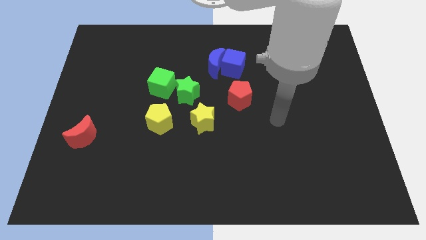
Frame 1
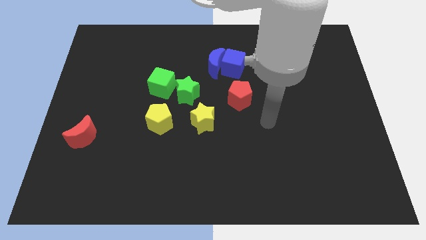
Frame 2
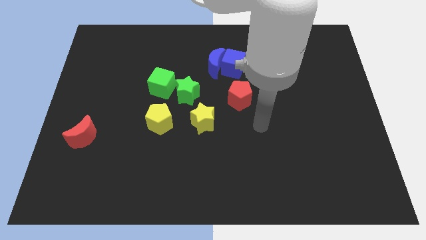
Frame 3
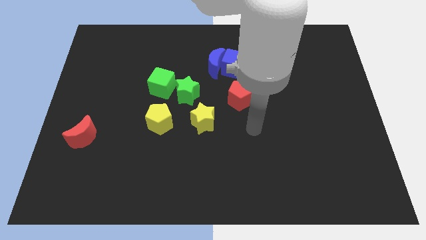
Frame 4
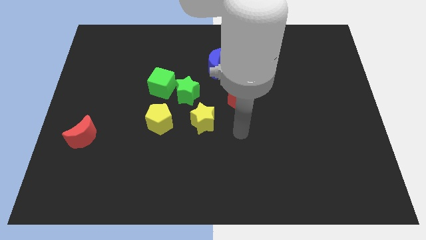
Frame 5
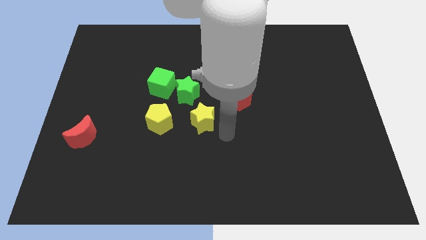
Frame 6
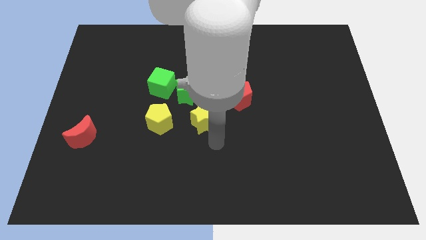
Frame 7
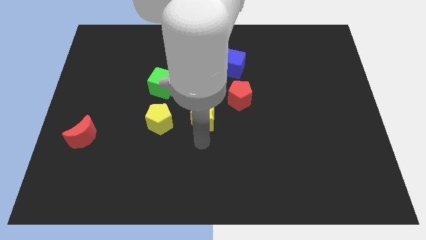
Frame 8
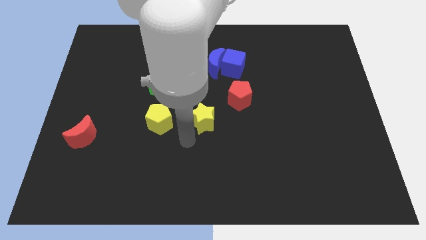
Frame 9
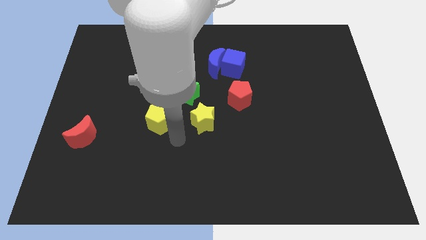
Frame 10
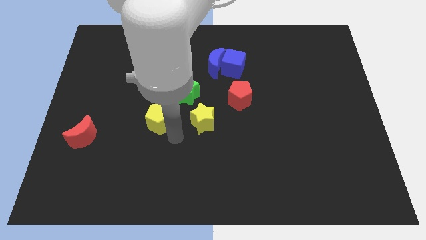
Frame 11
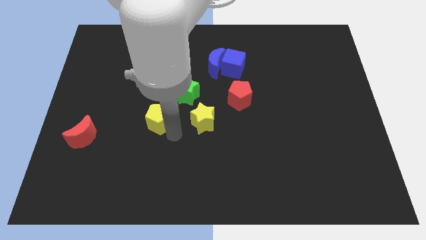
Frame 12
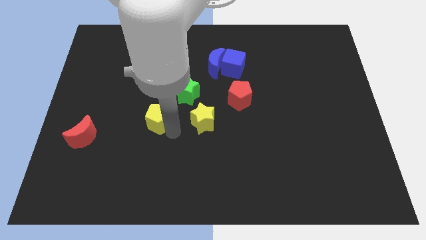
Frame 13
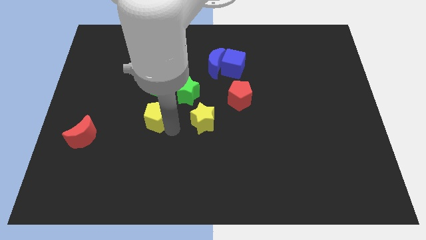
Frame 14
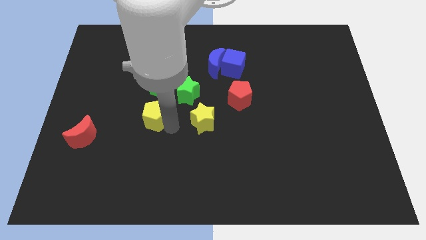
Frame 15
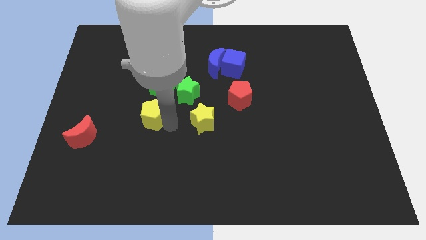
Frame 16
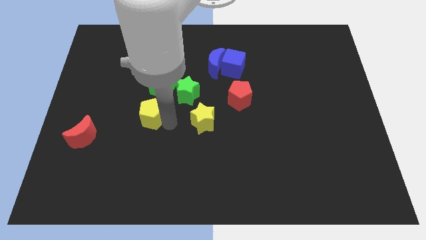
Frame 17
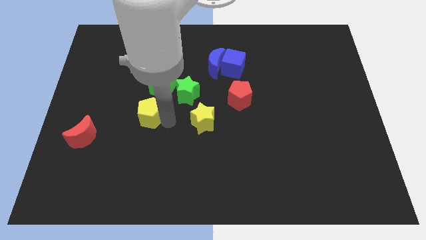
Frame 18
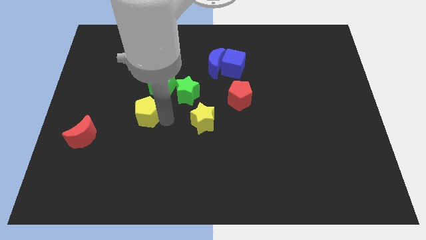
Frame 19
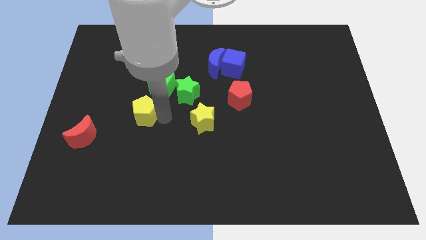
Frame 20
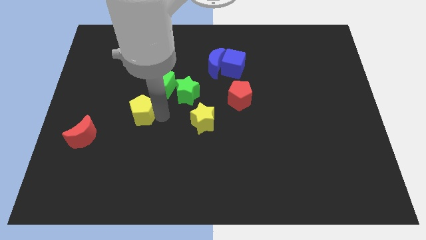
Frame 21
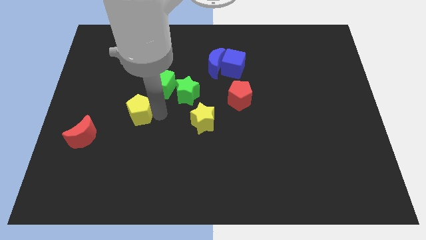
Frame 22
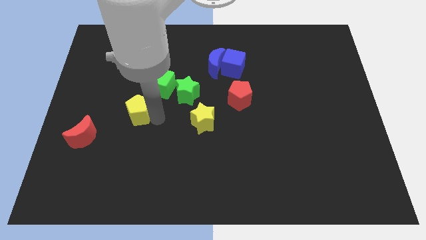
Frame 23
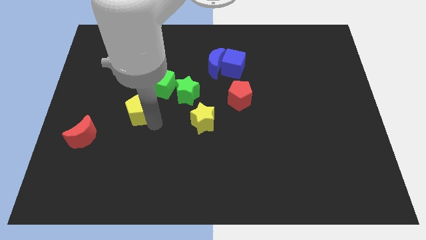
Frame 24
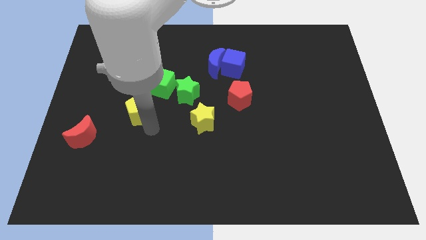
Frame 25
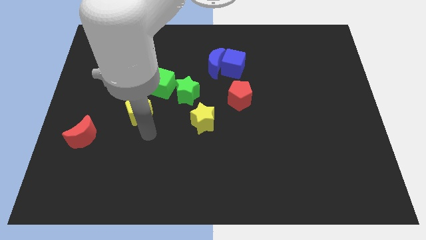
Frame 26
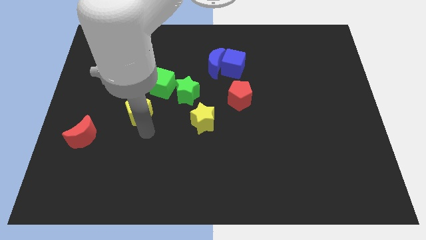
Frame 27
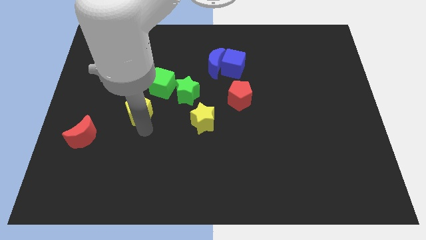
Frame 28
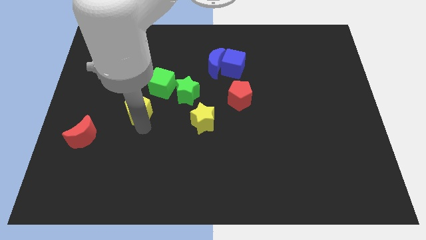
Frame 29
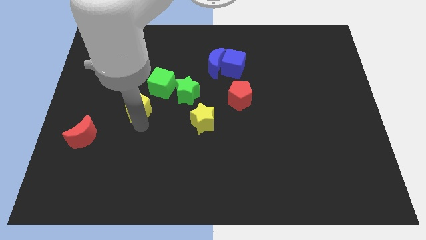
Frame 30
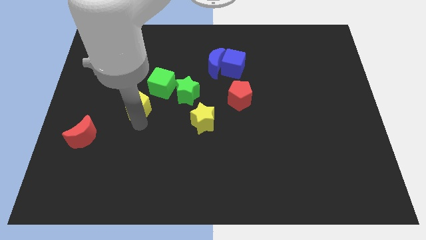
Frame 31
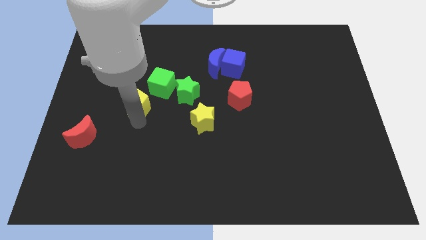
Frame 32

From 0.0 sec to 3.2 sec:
slightly slide the yellow pentagon up and to the left diagonally

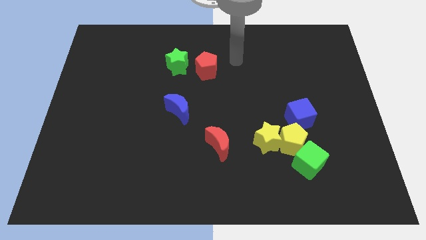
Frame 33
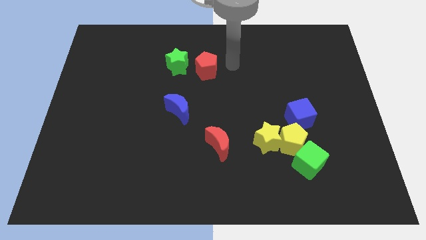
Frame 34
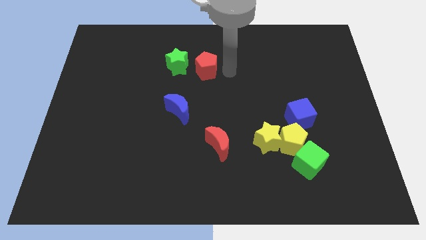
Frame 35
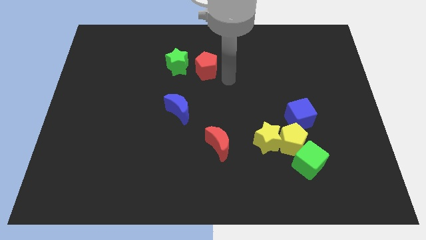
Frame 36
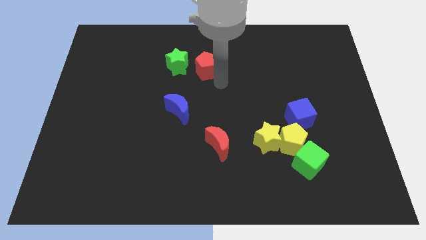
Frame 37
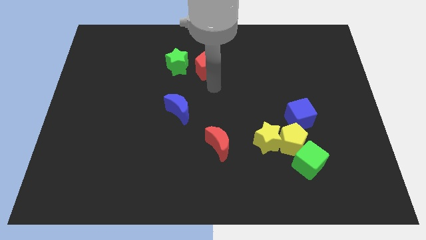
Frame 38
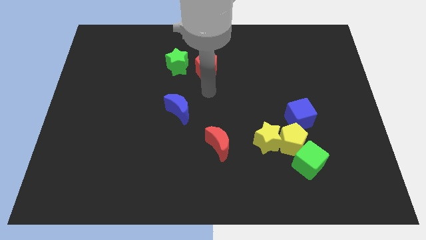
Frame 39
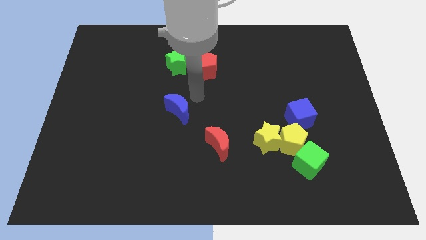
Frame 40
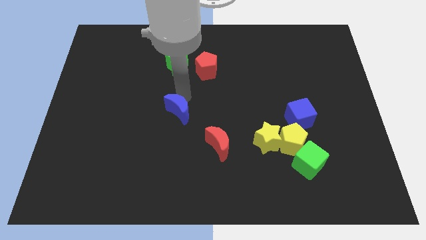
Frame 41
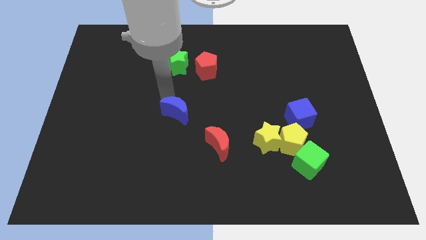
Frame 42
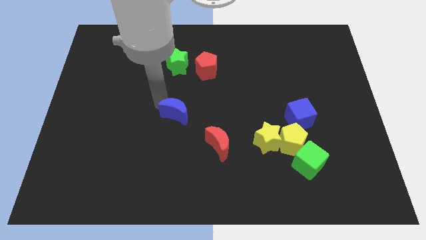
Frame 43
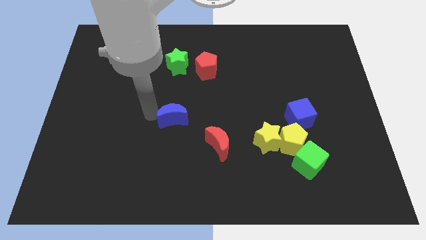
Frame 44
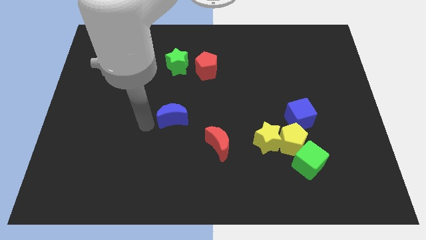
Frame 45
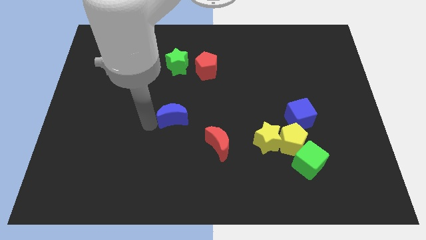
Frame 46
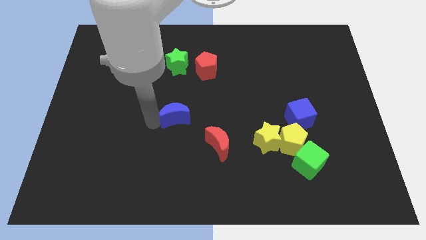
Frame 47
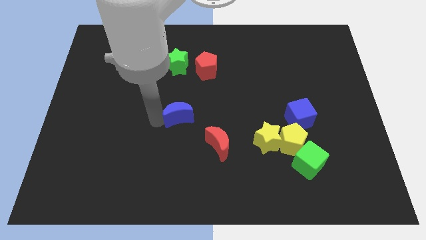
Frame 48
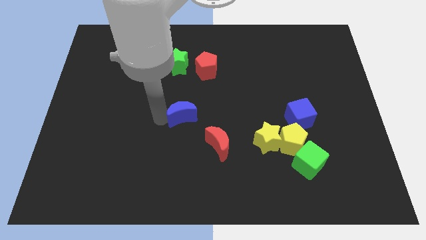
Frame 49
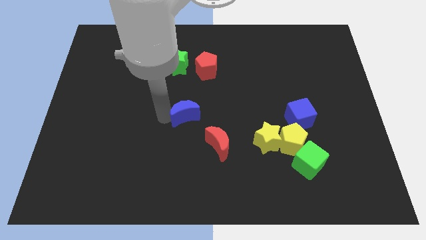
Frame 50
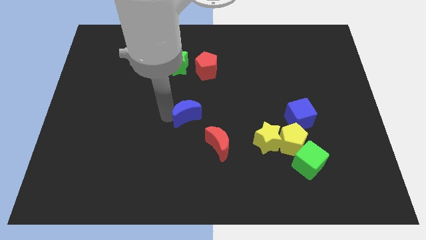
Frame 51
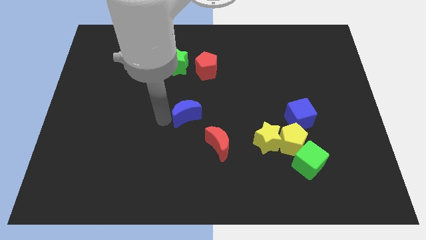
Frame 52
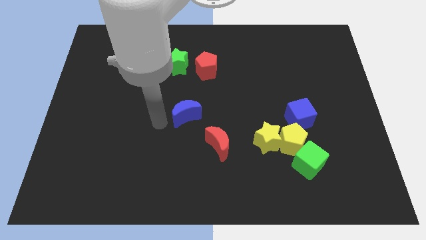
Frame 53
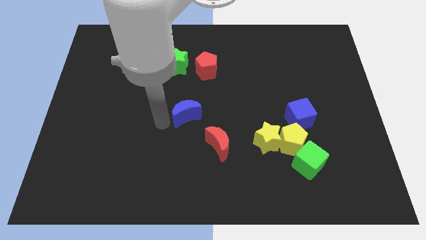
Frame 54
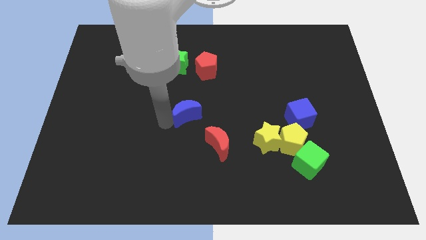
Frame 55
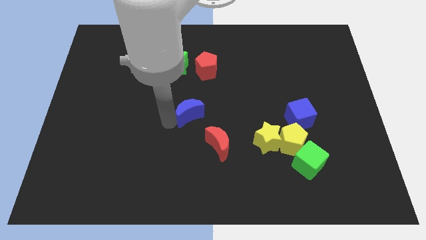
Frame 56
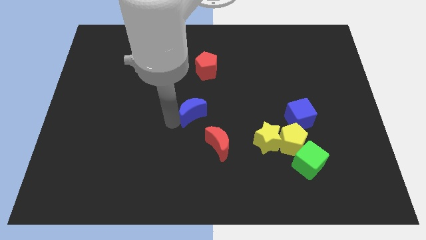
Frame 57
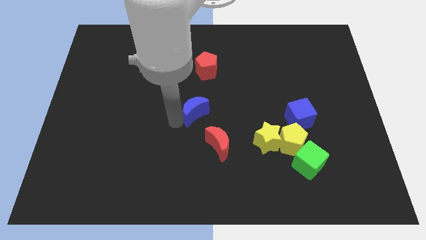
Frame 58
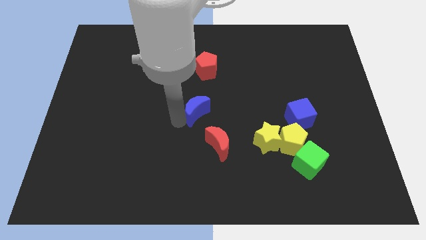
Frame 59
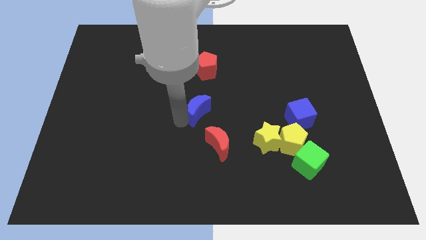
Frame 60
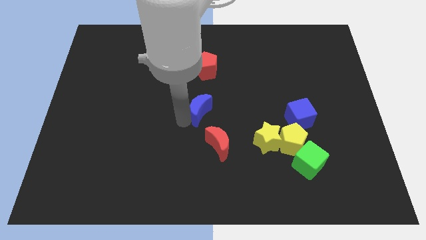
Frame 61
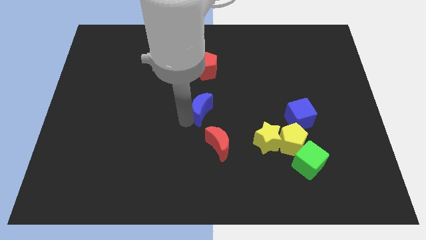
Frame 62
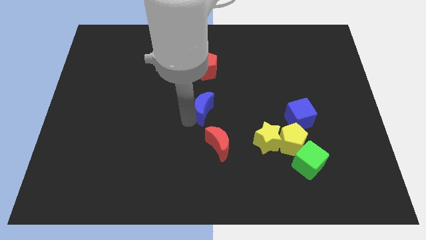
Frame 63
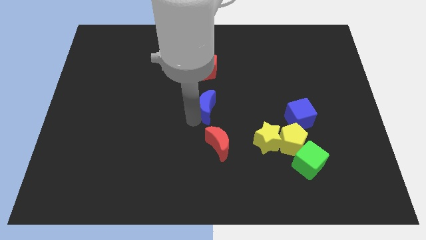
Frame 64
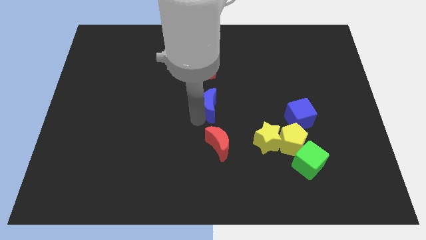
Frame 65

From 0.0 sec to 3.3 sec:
slightly move the blue moon right

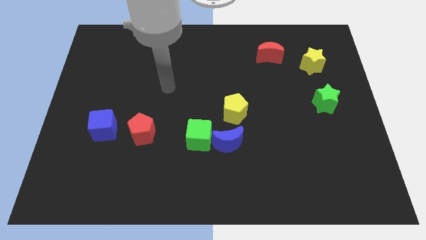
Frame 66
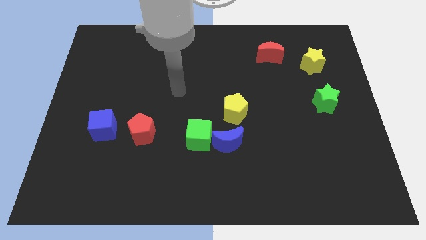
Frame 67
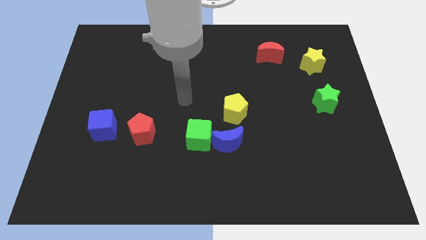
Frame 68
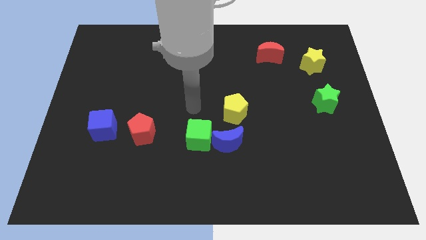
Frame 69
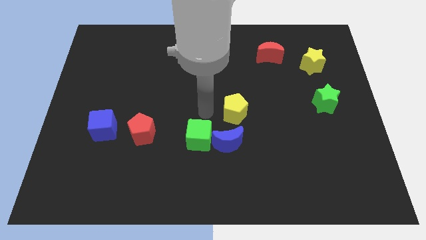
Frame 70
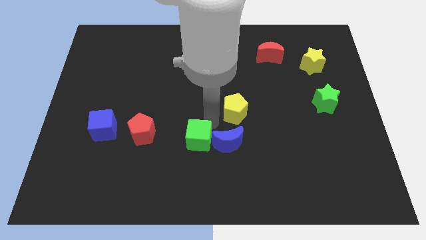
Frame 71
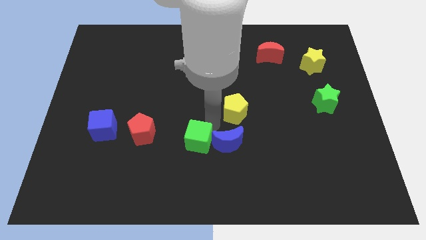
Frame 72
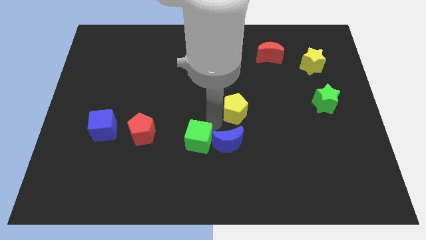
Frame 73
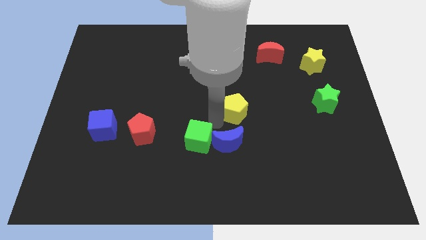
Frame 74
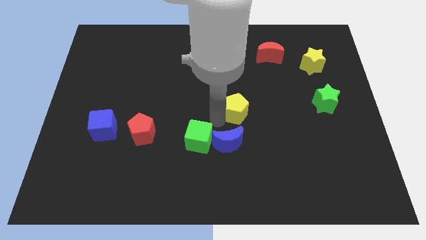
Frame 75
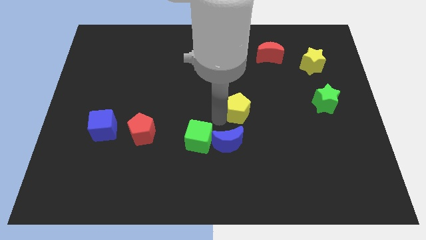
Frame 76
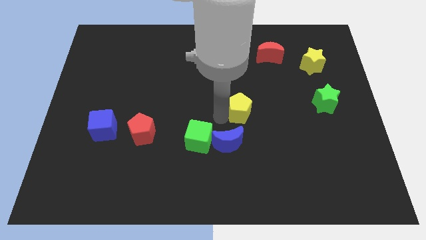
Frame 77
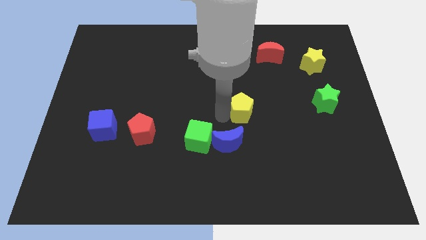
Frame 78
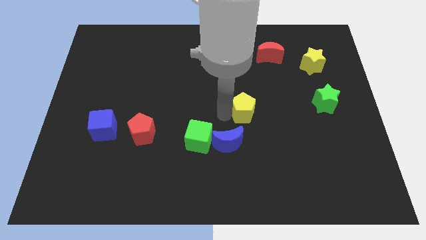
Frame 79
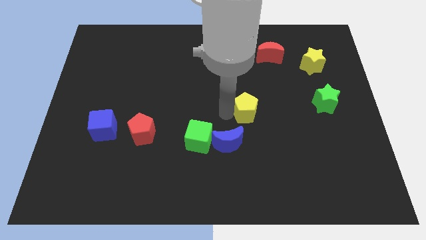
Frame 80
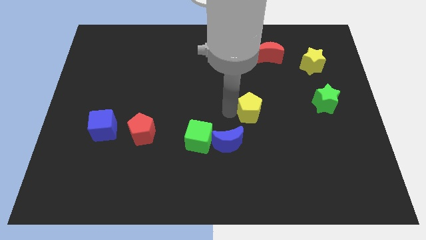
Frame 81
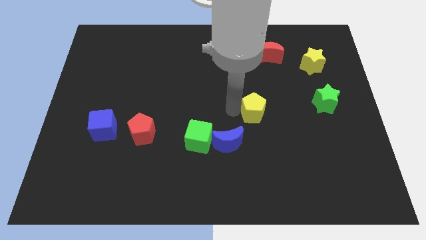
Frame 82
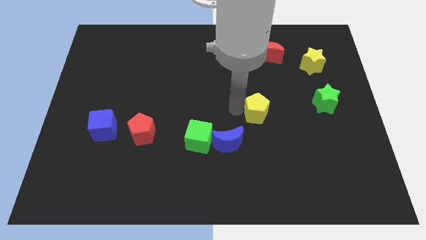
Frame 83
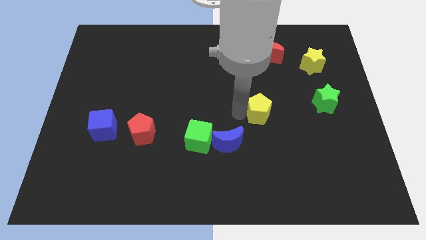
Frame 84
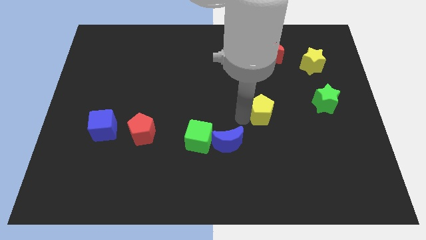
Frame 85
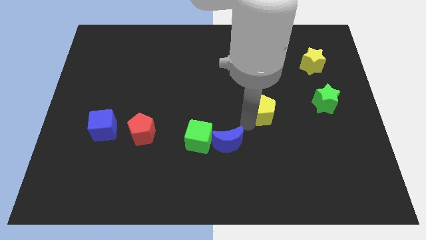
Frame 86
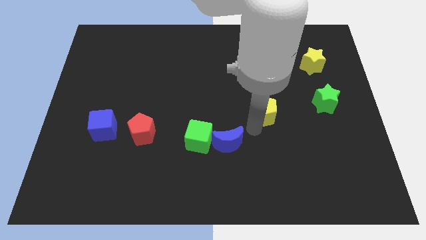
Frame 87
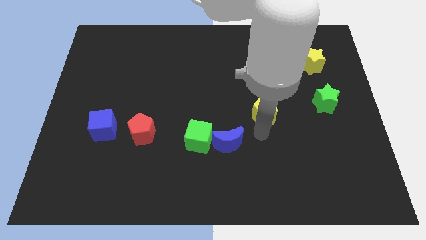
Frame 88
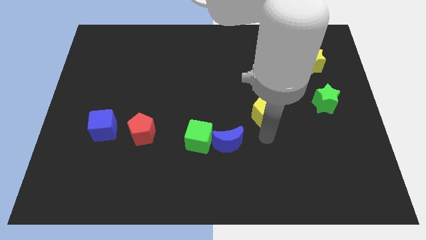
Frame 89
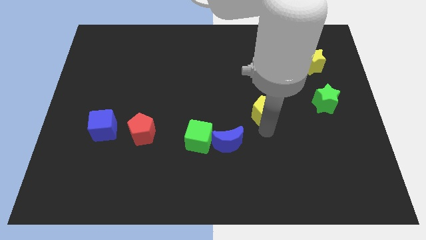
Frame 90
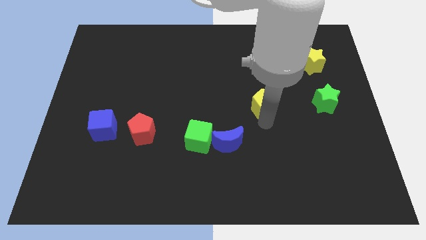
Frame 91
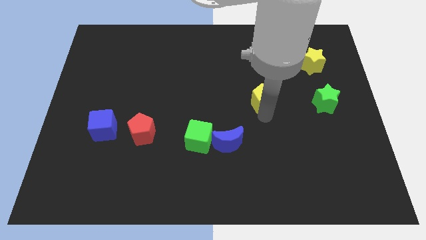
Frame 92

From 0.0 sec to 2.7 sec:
slightly slide the yellow pentagon diagonally up and right
